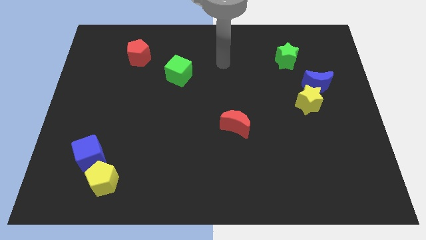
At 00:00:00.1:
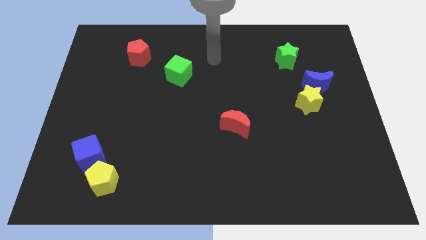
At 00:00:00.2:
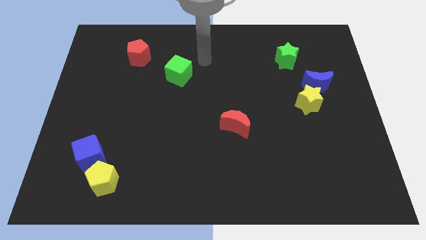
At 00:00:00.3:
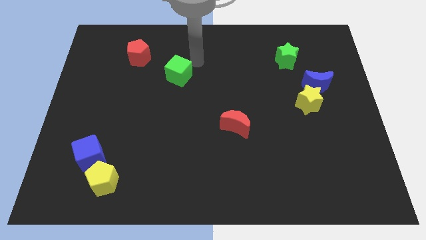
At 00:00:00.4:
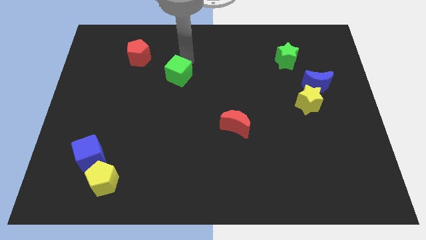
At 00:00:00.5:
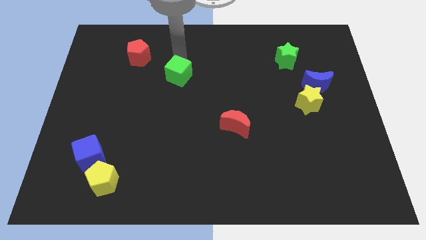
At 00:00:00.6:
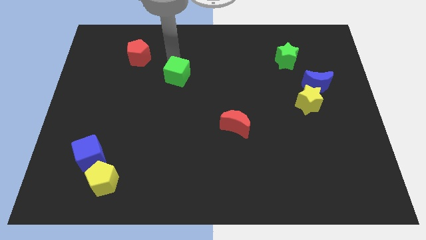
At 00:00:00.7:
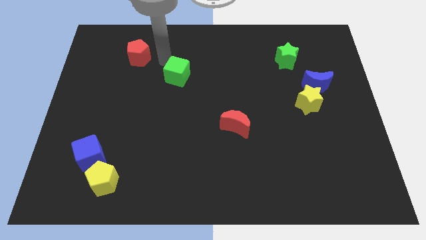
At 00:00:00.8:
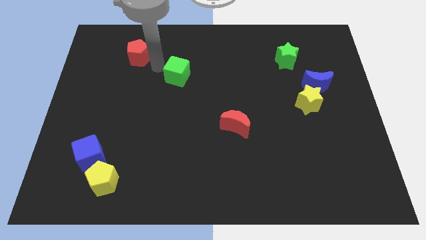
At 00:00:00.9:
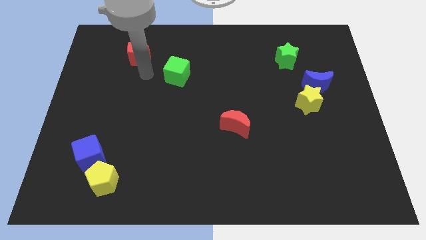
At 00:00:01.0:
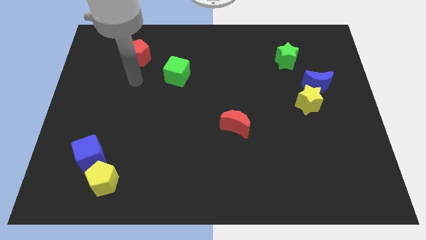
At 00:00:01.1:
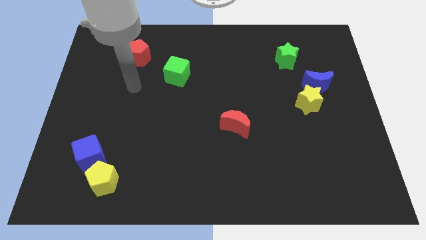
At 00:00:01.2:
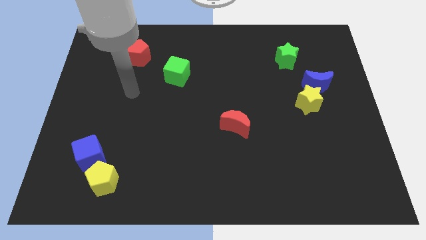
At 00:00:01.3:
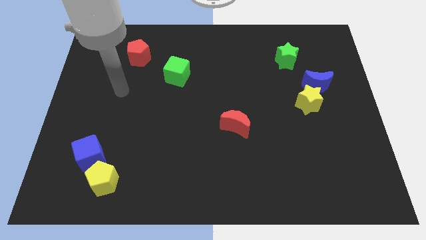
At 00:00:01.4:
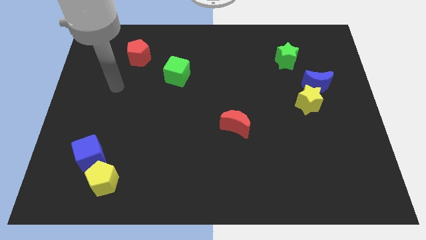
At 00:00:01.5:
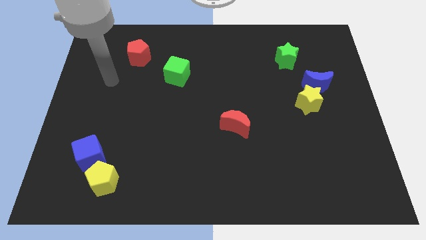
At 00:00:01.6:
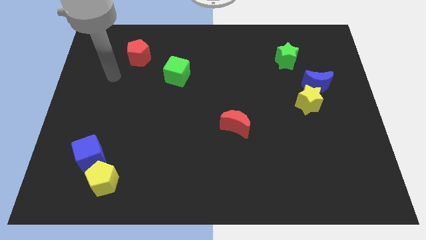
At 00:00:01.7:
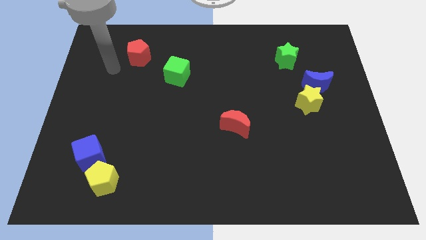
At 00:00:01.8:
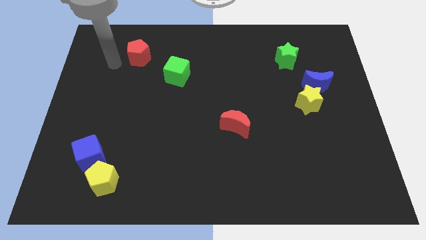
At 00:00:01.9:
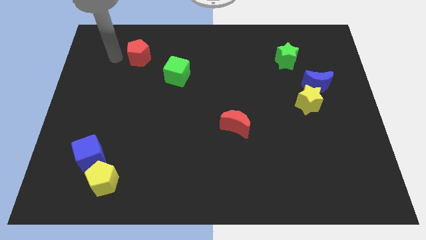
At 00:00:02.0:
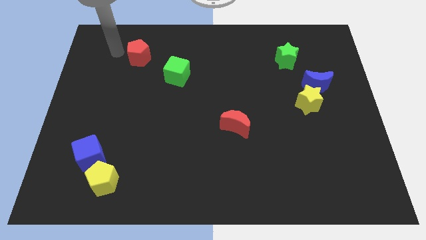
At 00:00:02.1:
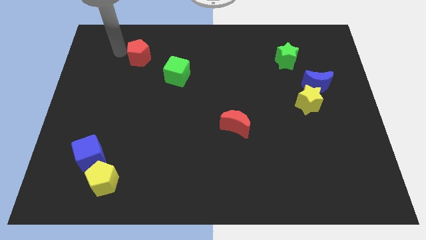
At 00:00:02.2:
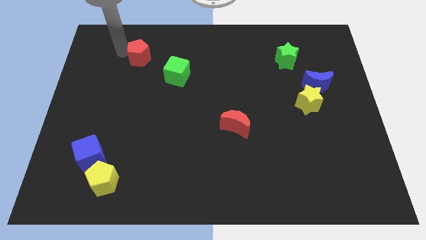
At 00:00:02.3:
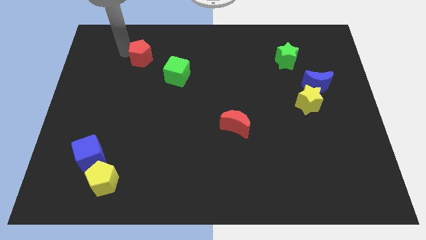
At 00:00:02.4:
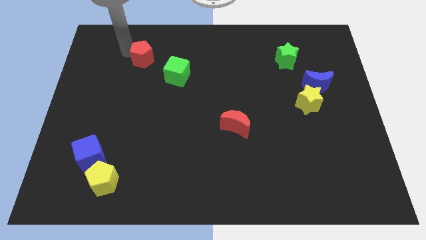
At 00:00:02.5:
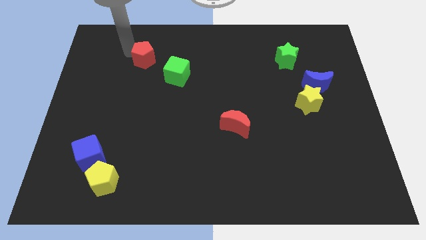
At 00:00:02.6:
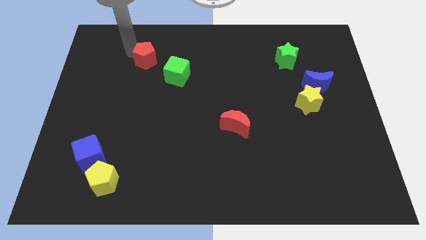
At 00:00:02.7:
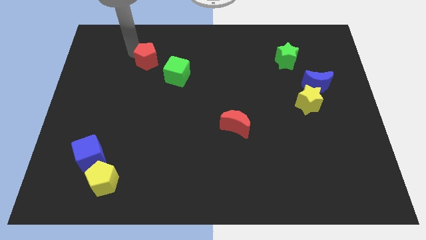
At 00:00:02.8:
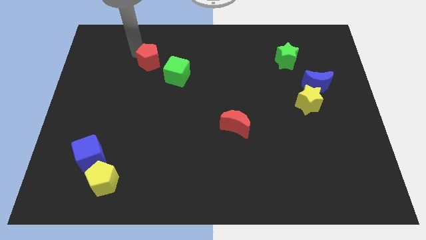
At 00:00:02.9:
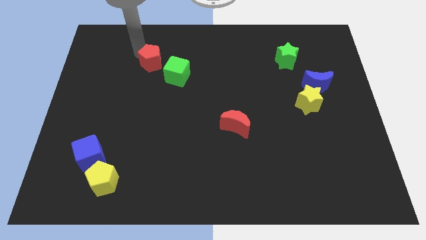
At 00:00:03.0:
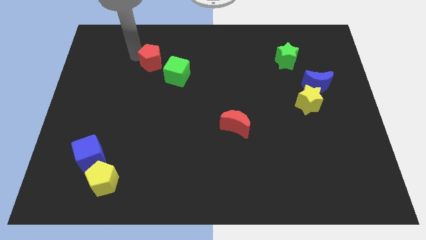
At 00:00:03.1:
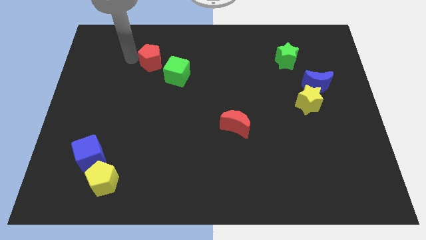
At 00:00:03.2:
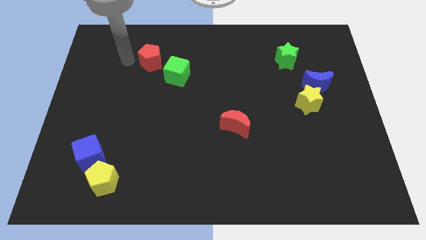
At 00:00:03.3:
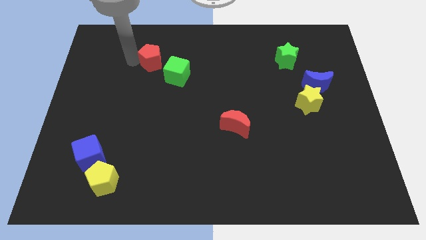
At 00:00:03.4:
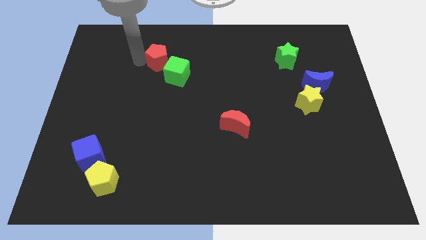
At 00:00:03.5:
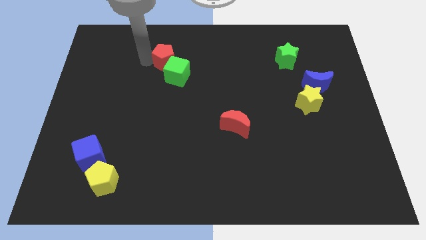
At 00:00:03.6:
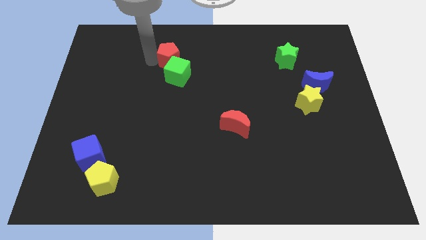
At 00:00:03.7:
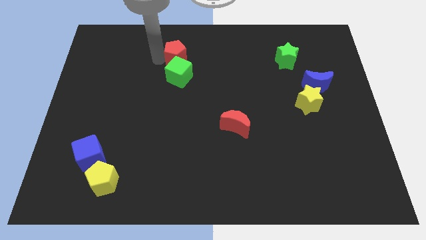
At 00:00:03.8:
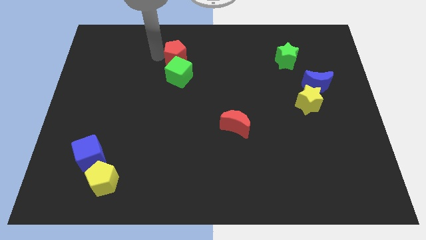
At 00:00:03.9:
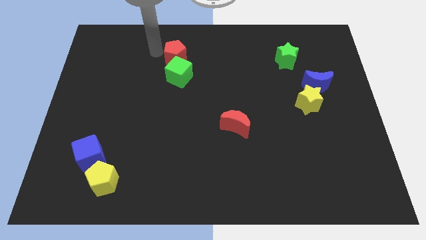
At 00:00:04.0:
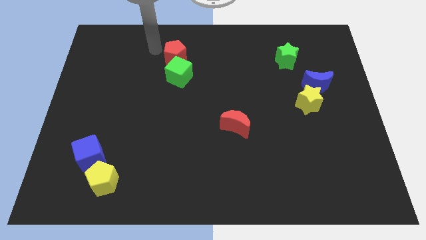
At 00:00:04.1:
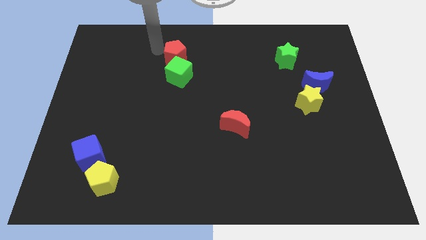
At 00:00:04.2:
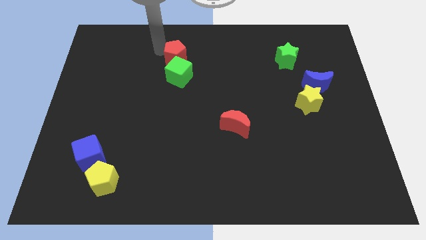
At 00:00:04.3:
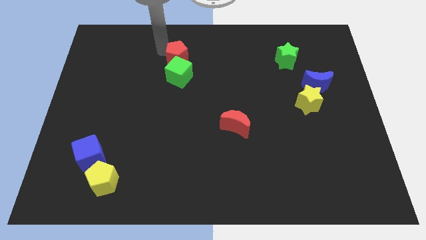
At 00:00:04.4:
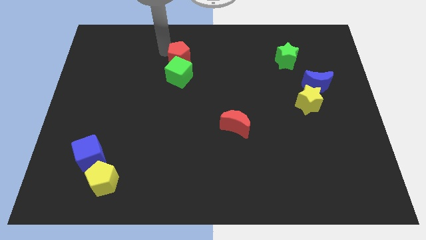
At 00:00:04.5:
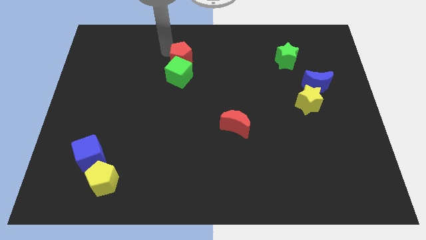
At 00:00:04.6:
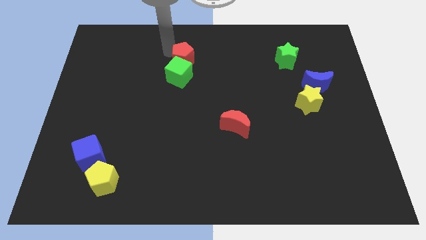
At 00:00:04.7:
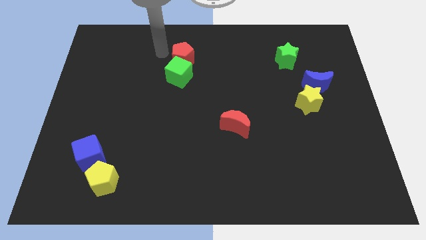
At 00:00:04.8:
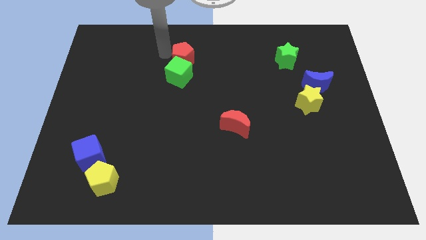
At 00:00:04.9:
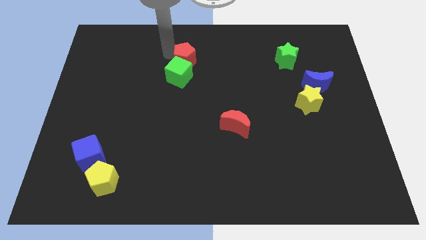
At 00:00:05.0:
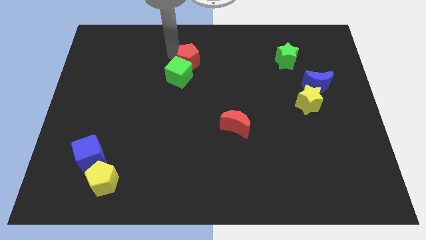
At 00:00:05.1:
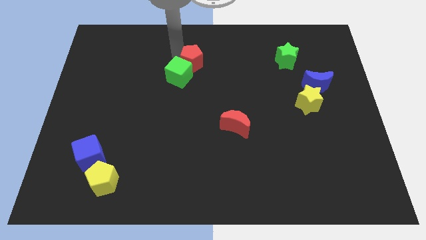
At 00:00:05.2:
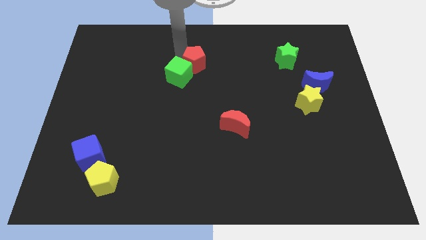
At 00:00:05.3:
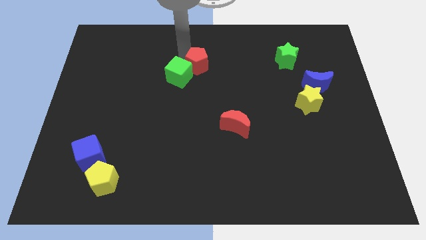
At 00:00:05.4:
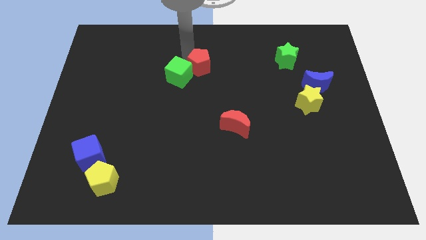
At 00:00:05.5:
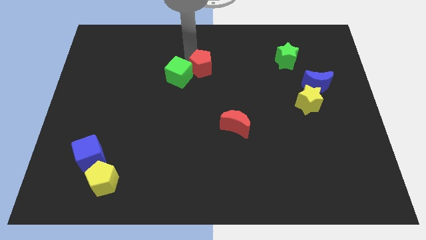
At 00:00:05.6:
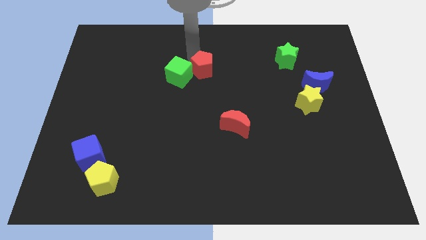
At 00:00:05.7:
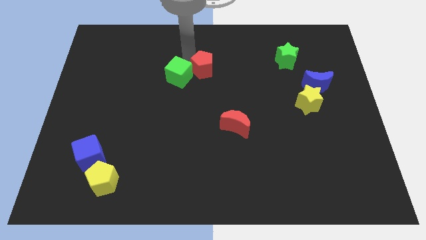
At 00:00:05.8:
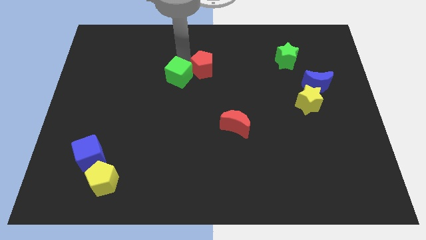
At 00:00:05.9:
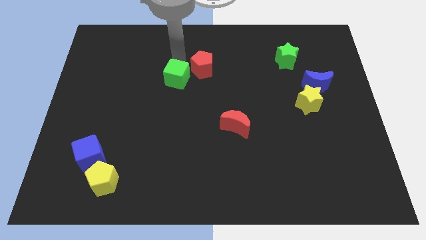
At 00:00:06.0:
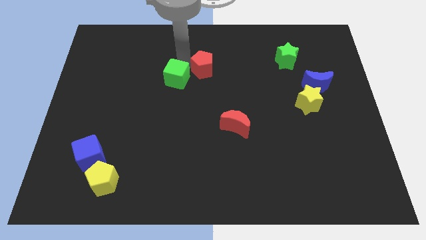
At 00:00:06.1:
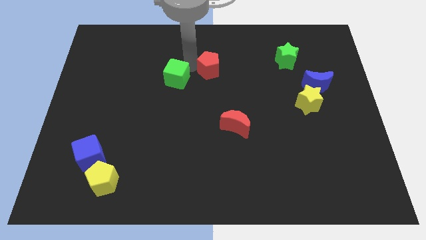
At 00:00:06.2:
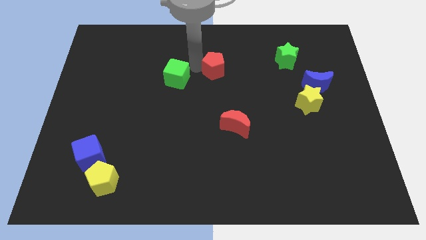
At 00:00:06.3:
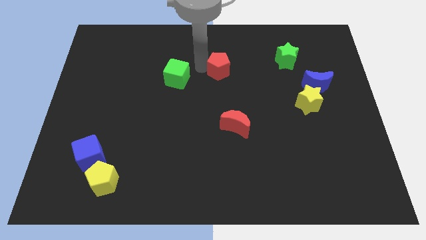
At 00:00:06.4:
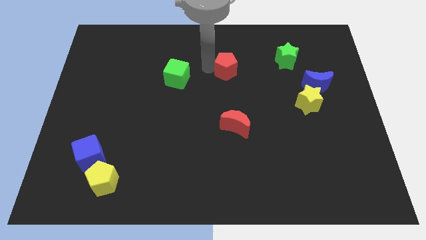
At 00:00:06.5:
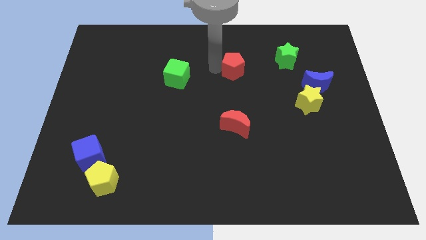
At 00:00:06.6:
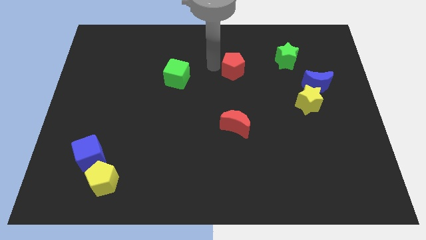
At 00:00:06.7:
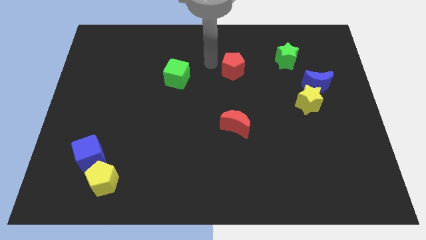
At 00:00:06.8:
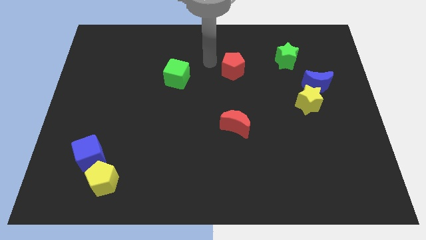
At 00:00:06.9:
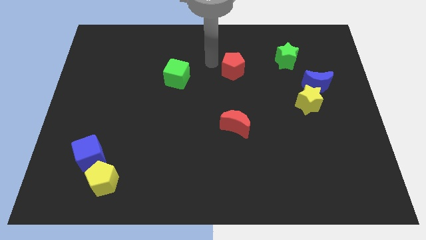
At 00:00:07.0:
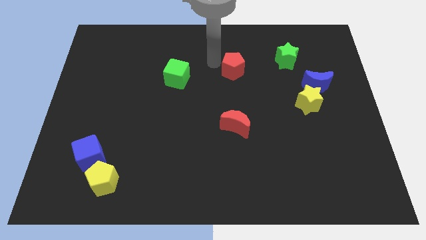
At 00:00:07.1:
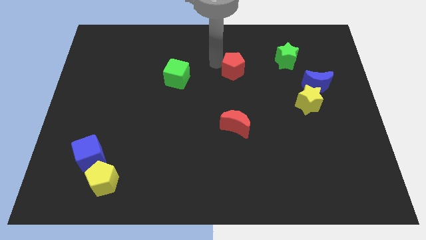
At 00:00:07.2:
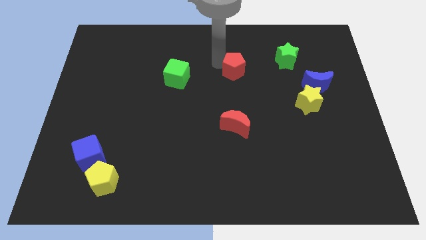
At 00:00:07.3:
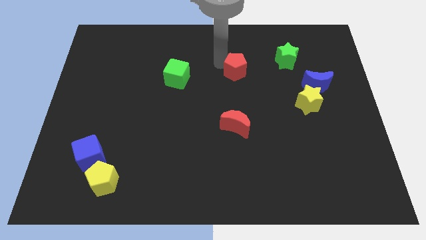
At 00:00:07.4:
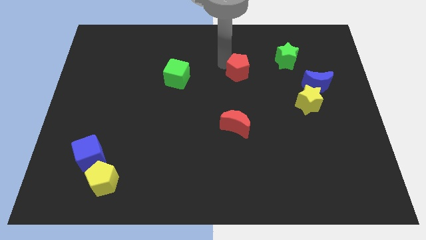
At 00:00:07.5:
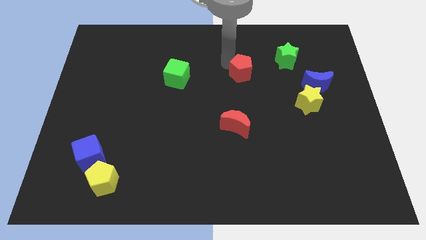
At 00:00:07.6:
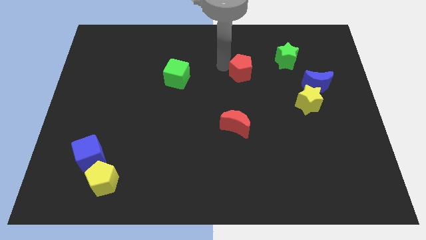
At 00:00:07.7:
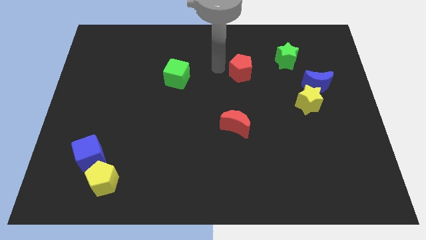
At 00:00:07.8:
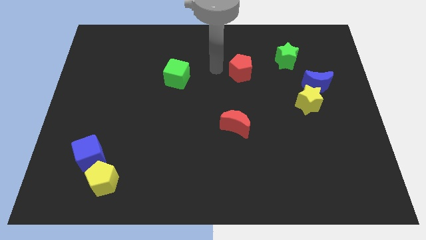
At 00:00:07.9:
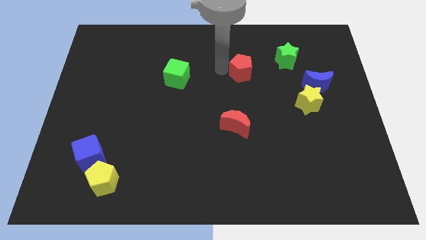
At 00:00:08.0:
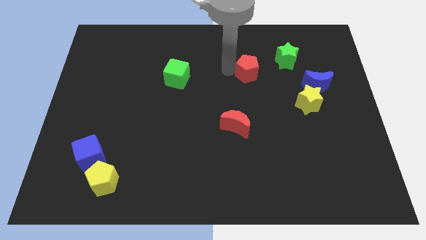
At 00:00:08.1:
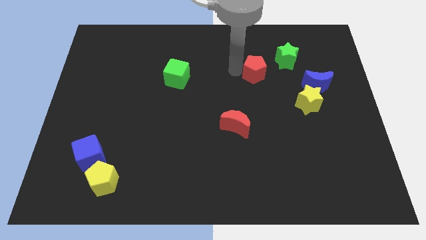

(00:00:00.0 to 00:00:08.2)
put the red pentagon to the bottom left side of the green star
